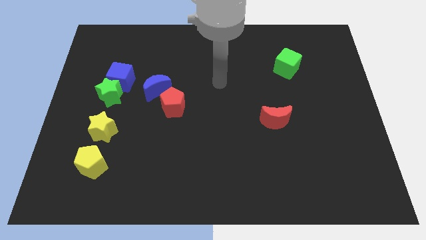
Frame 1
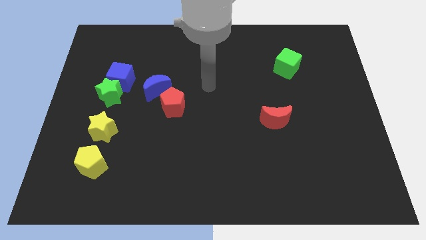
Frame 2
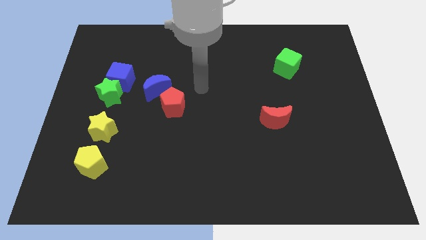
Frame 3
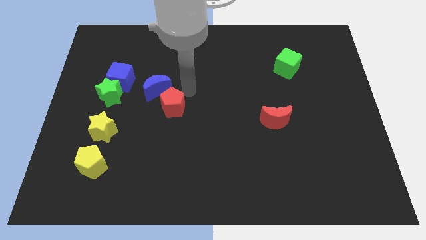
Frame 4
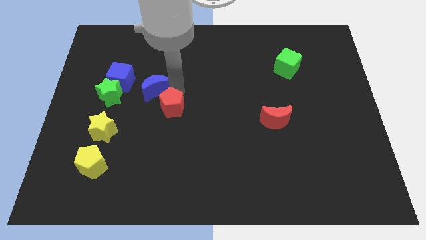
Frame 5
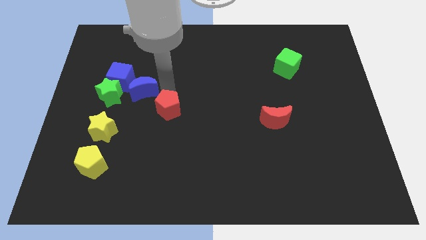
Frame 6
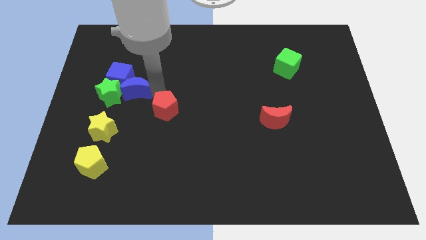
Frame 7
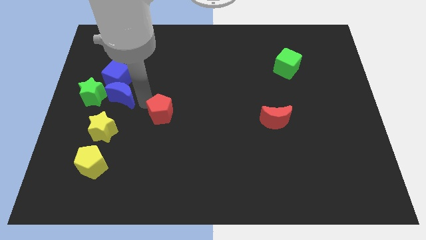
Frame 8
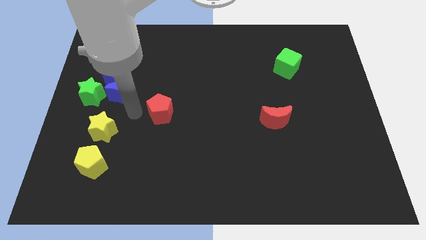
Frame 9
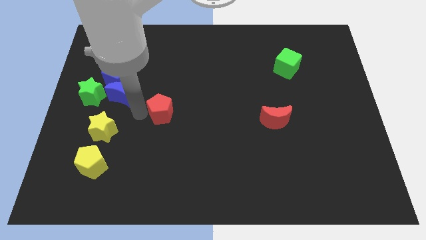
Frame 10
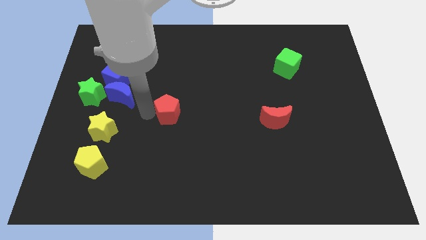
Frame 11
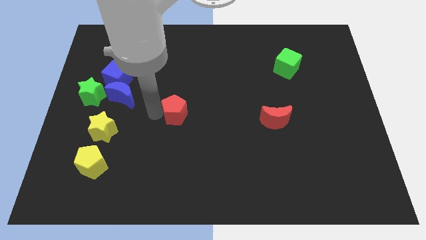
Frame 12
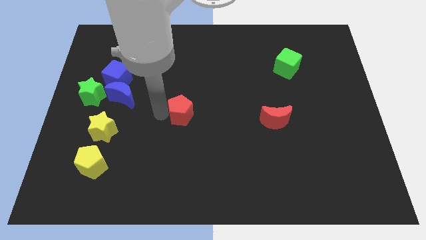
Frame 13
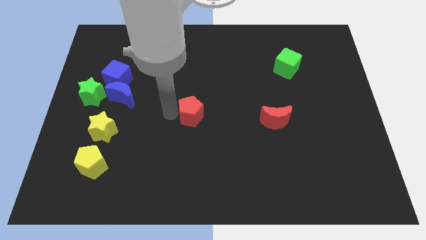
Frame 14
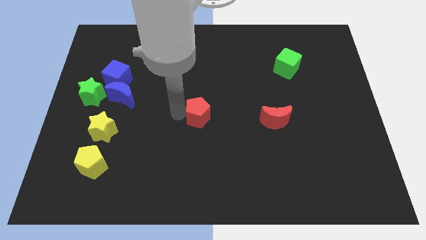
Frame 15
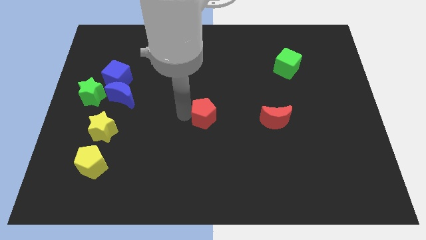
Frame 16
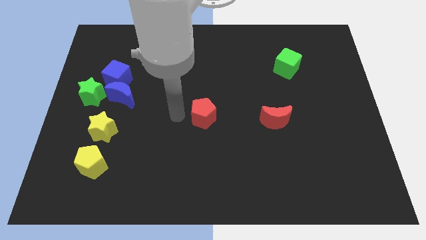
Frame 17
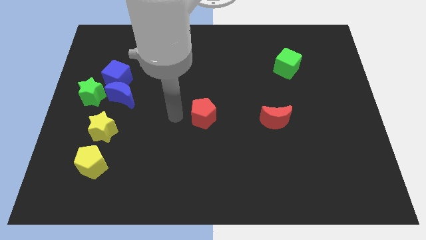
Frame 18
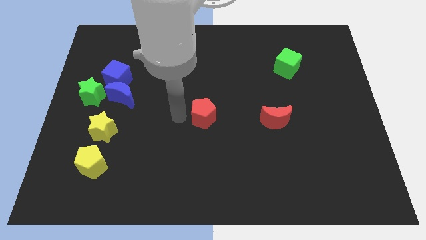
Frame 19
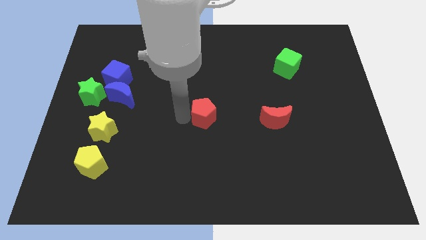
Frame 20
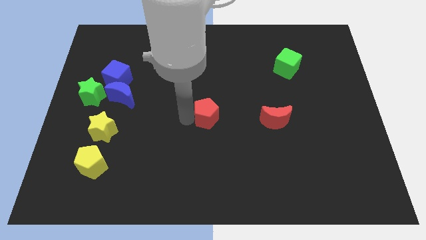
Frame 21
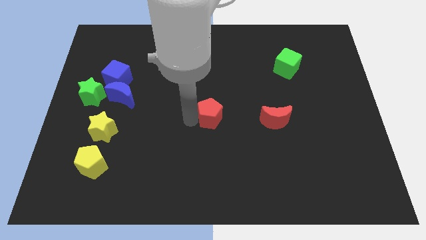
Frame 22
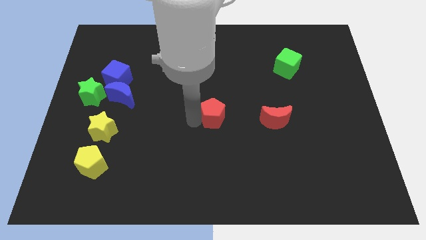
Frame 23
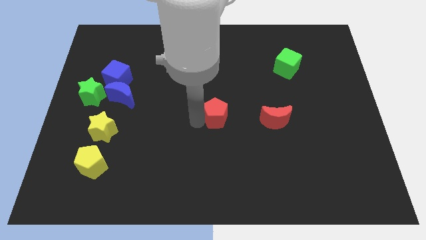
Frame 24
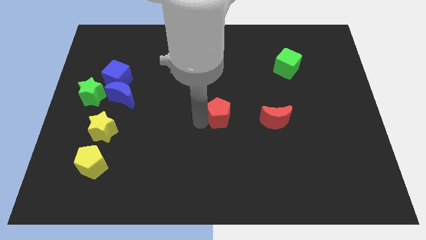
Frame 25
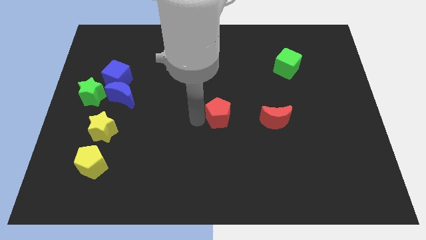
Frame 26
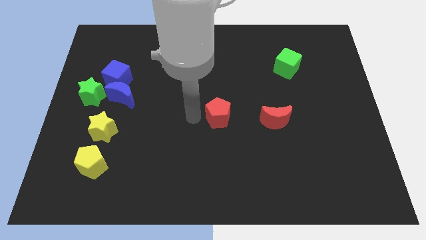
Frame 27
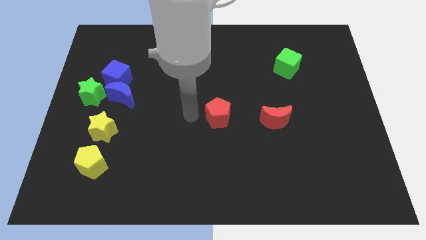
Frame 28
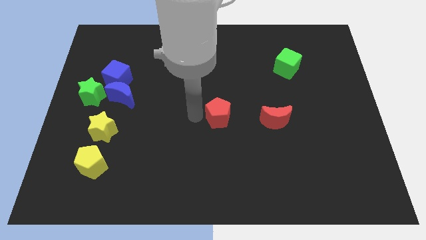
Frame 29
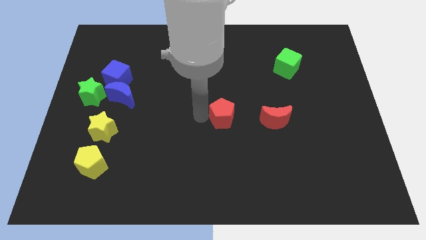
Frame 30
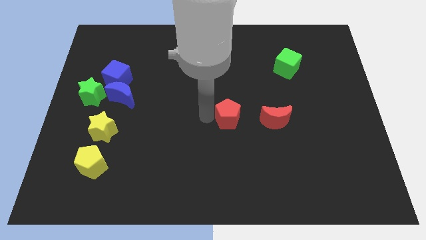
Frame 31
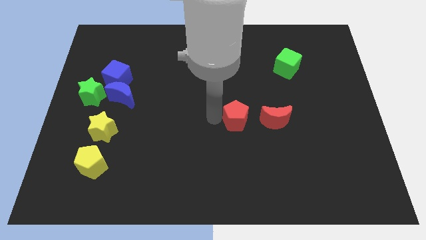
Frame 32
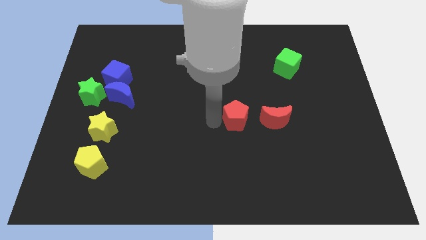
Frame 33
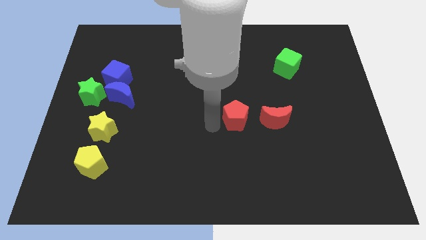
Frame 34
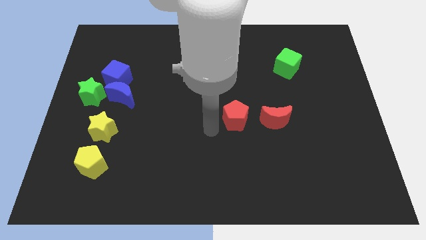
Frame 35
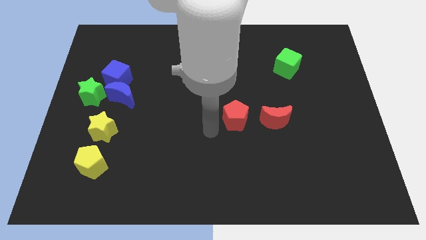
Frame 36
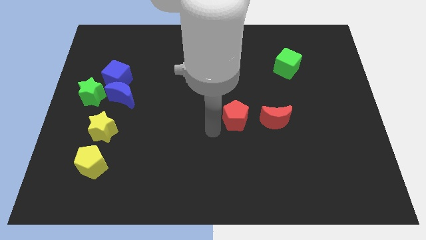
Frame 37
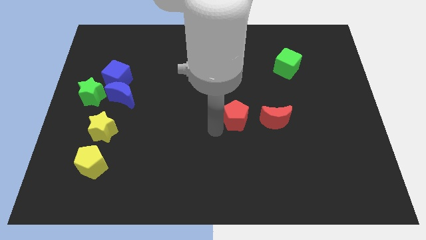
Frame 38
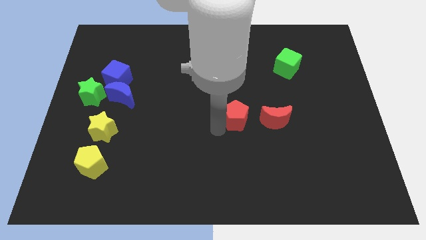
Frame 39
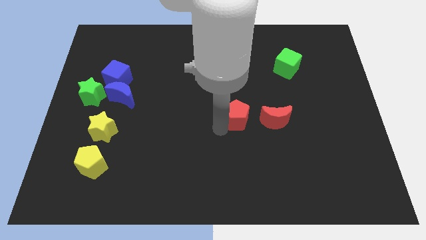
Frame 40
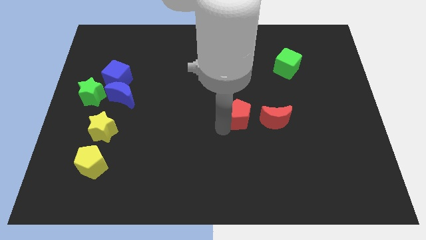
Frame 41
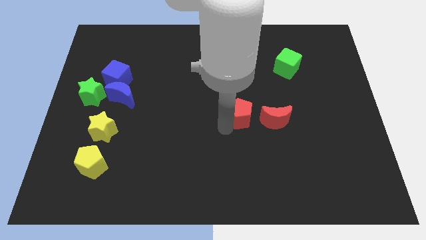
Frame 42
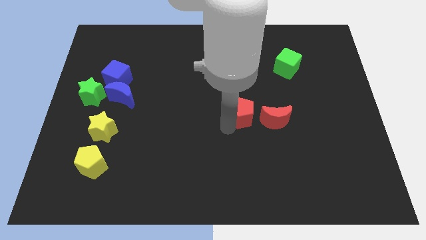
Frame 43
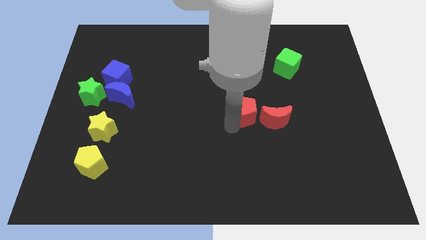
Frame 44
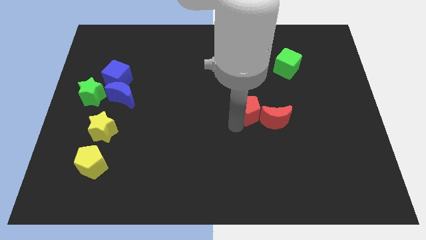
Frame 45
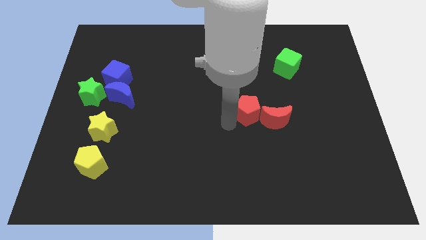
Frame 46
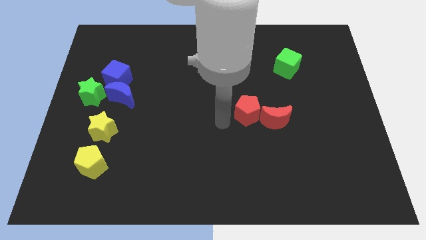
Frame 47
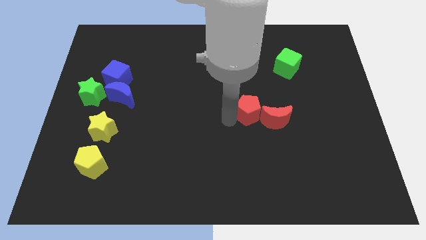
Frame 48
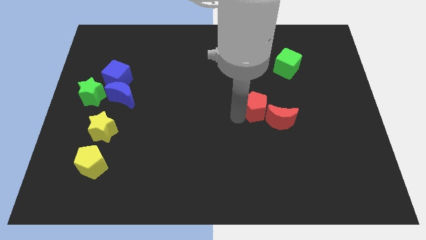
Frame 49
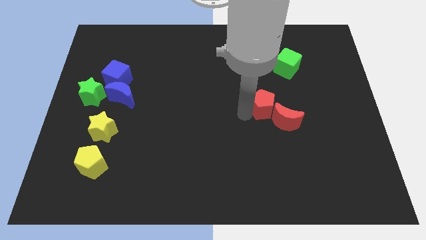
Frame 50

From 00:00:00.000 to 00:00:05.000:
slide the red pentagon right

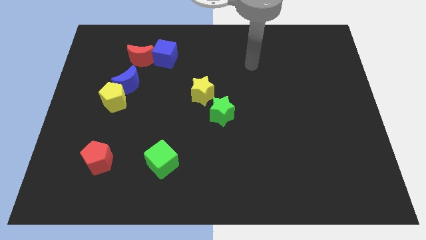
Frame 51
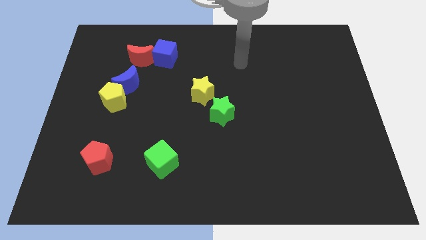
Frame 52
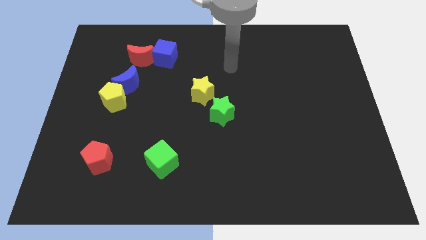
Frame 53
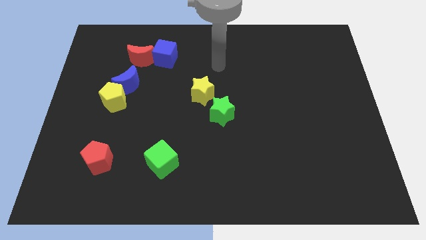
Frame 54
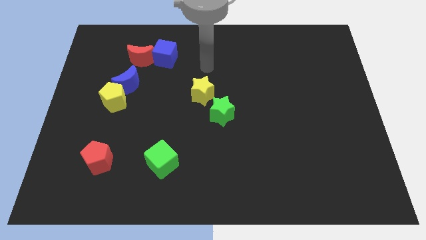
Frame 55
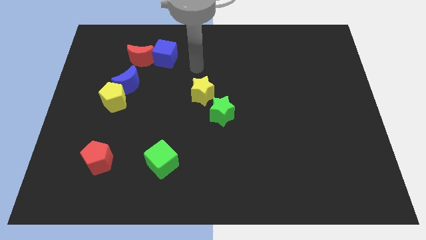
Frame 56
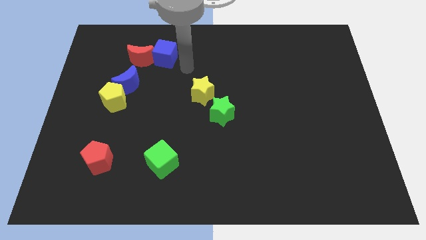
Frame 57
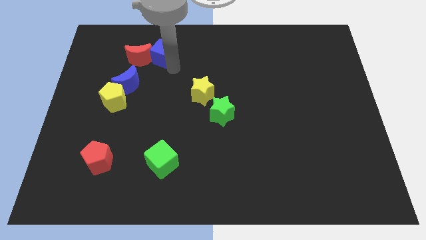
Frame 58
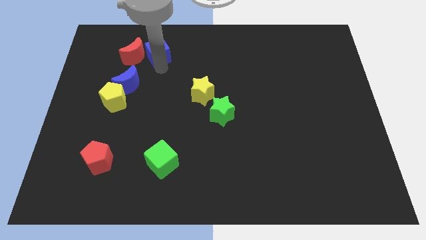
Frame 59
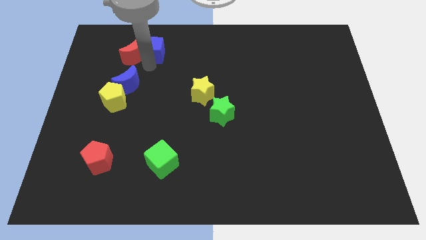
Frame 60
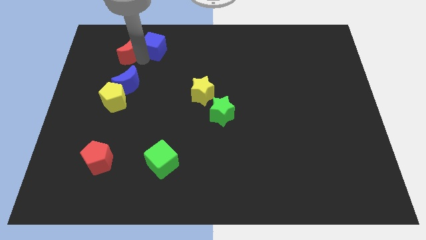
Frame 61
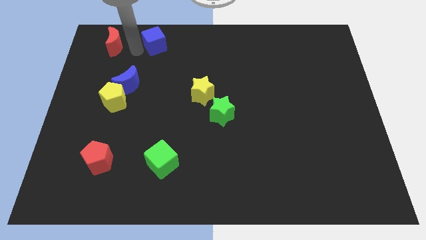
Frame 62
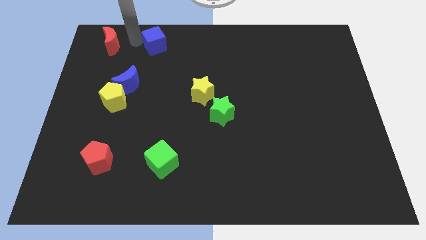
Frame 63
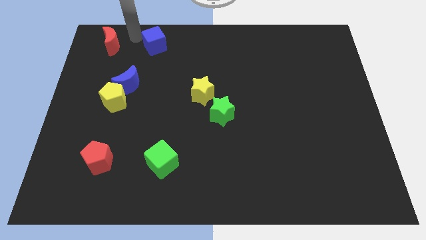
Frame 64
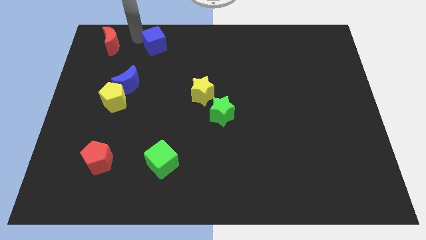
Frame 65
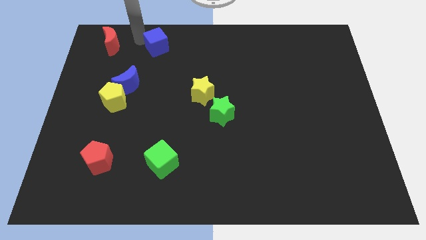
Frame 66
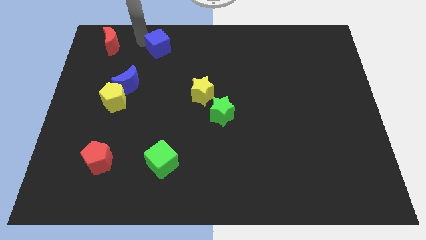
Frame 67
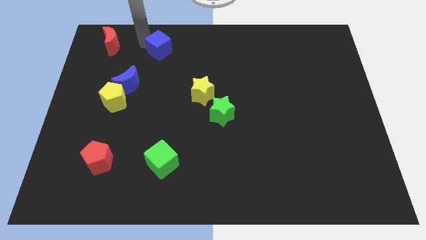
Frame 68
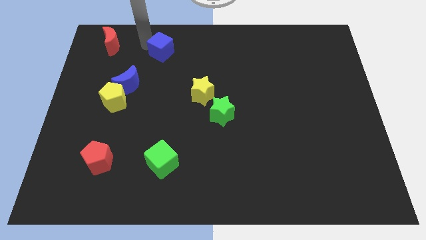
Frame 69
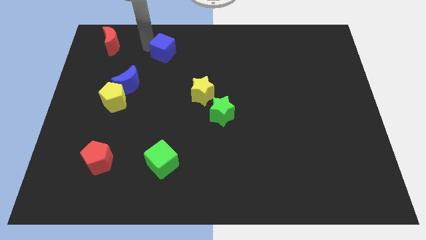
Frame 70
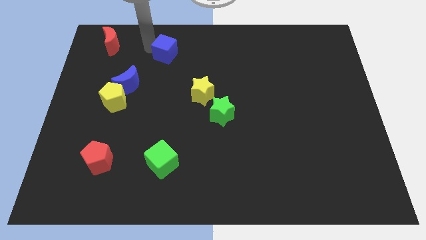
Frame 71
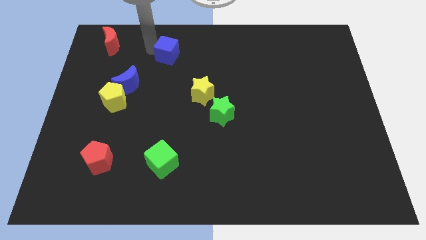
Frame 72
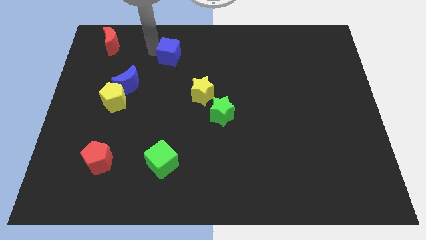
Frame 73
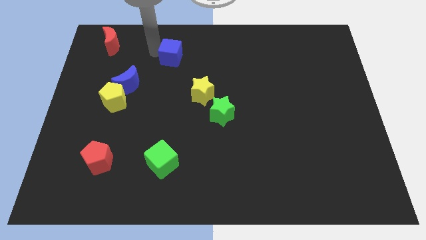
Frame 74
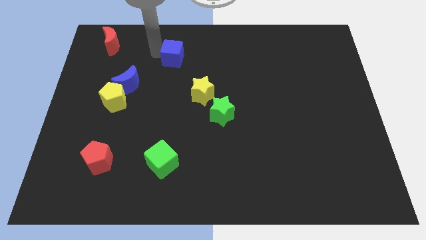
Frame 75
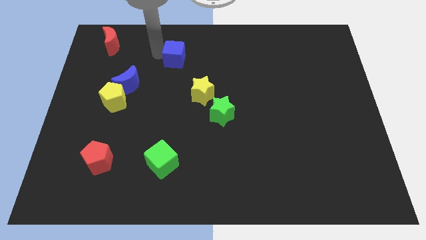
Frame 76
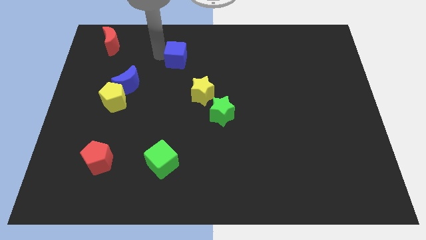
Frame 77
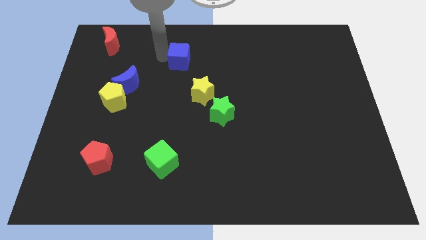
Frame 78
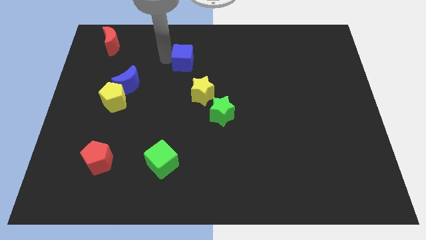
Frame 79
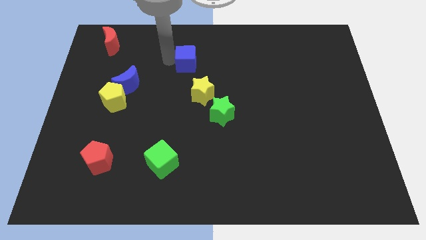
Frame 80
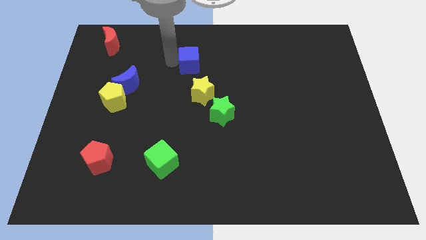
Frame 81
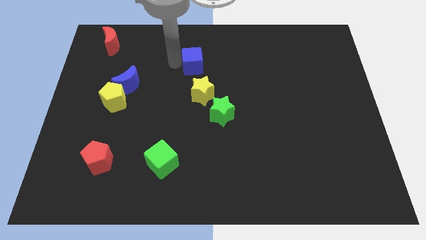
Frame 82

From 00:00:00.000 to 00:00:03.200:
move the blue cube a little right
